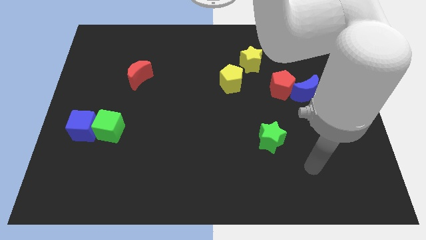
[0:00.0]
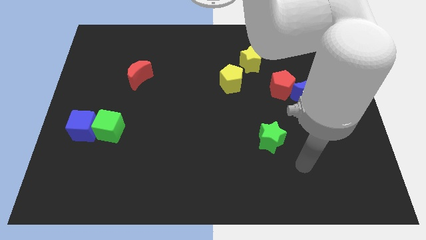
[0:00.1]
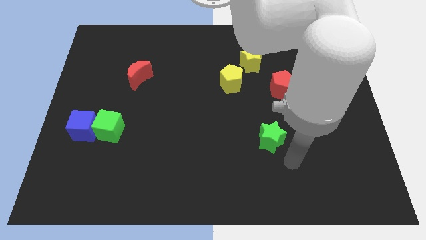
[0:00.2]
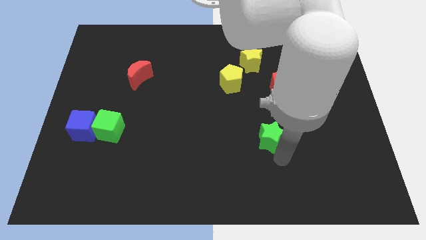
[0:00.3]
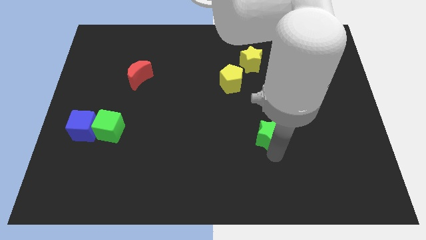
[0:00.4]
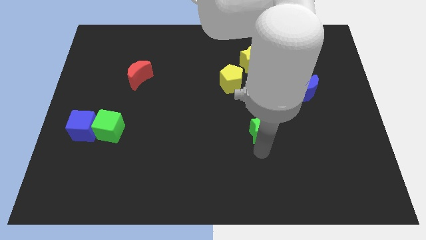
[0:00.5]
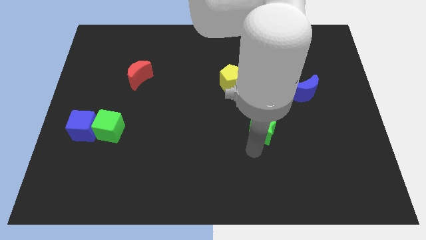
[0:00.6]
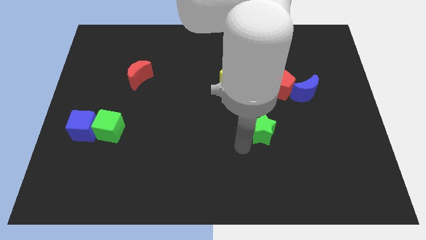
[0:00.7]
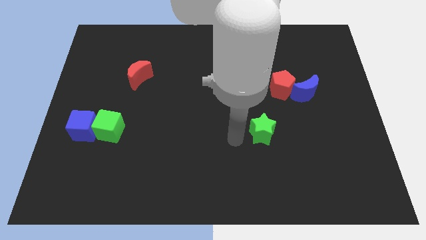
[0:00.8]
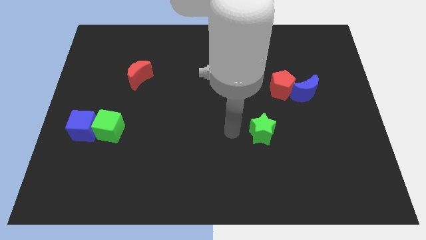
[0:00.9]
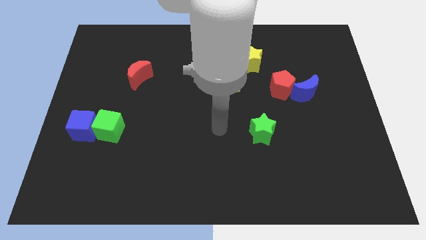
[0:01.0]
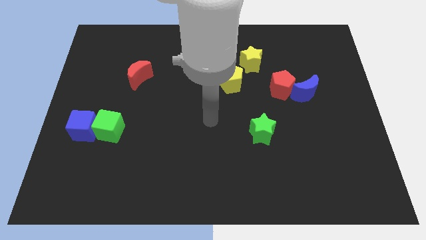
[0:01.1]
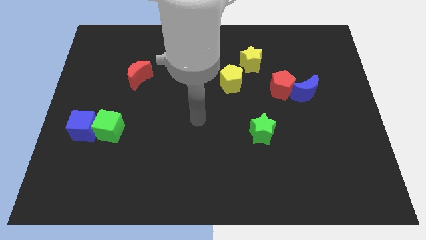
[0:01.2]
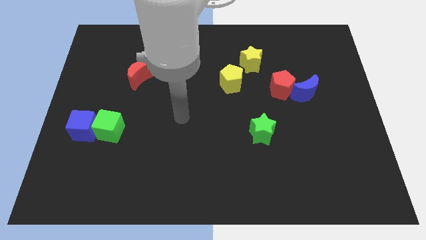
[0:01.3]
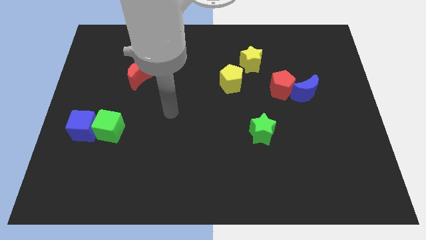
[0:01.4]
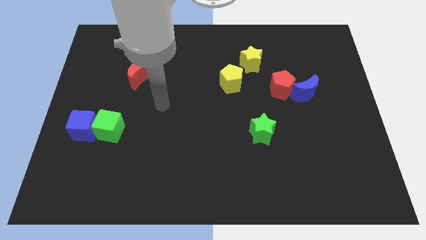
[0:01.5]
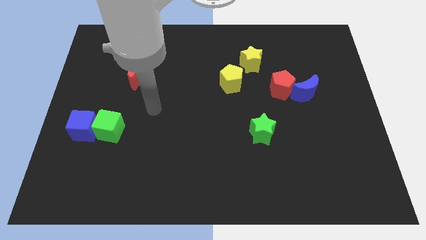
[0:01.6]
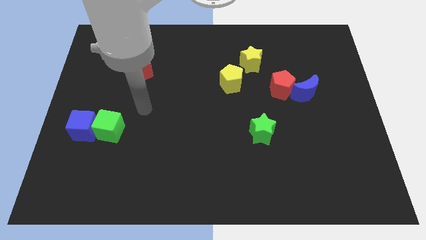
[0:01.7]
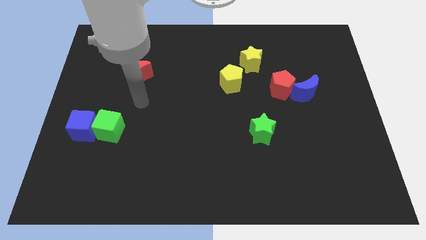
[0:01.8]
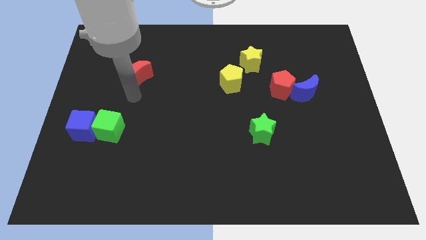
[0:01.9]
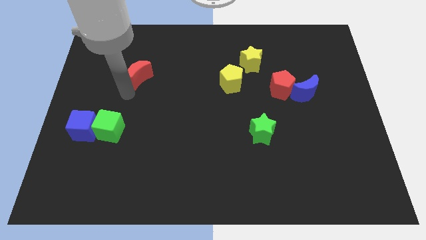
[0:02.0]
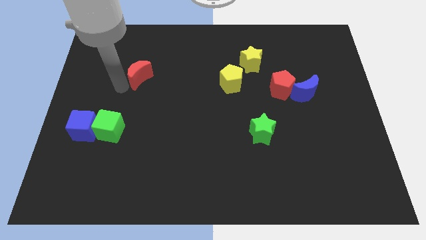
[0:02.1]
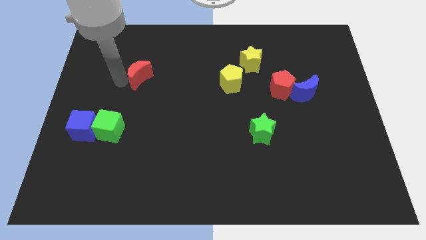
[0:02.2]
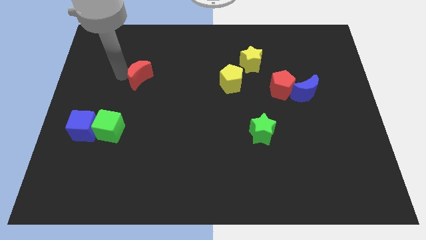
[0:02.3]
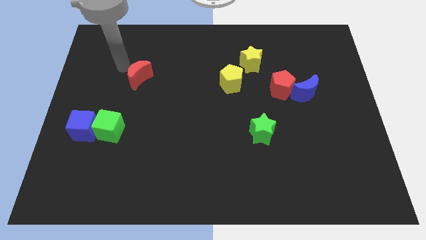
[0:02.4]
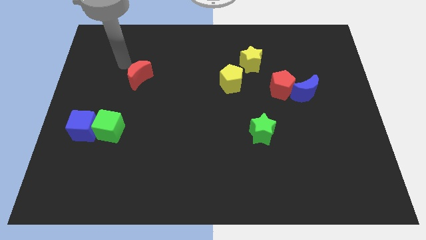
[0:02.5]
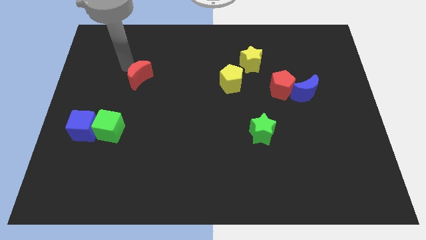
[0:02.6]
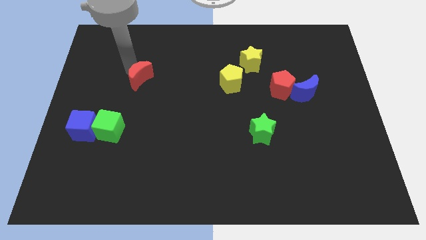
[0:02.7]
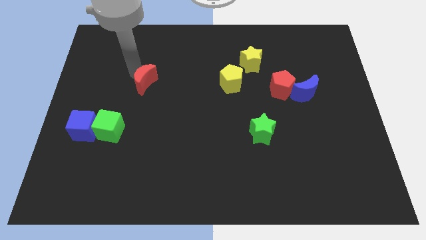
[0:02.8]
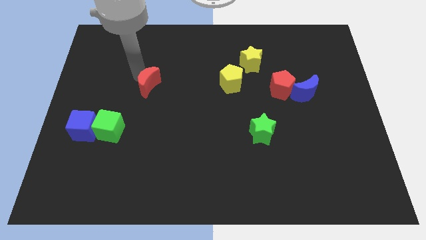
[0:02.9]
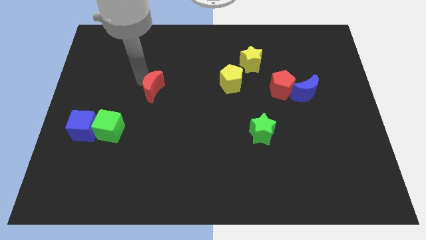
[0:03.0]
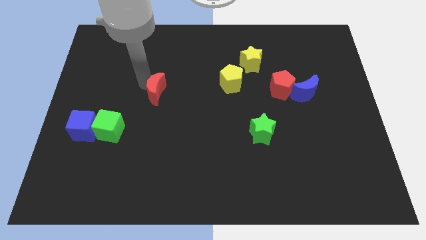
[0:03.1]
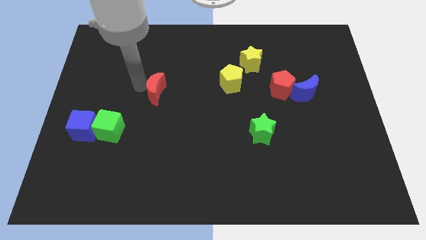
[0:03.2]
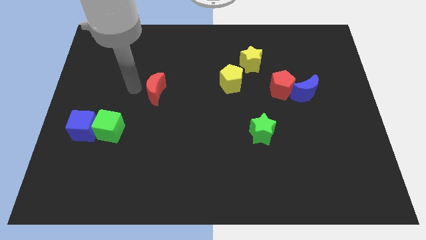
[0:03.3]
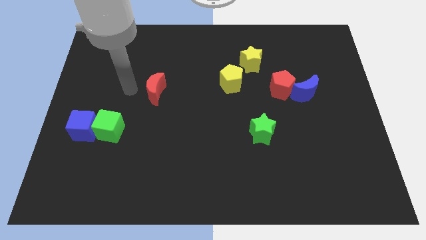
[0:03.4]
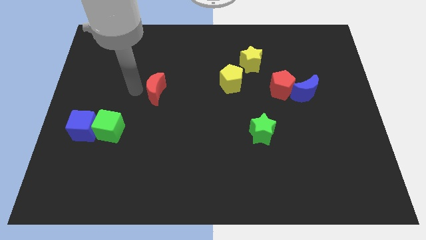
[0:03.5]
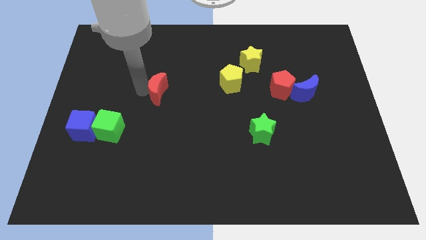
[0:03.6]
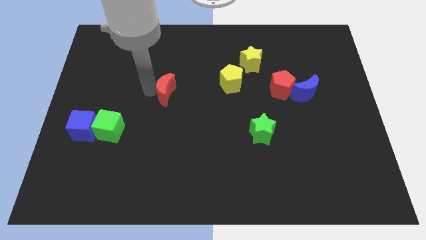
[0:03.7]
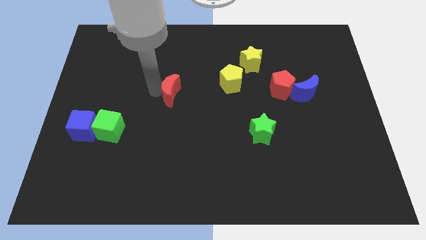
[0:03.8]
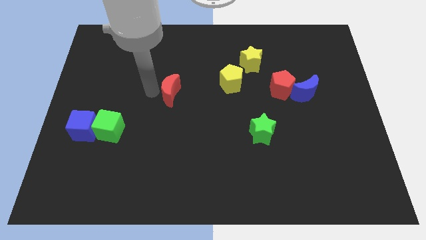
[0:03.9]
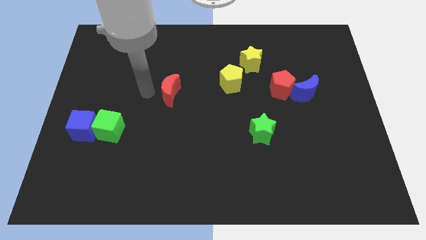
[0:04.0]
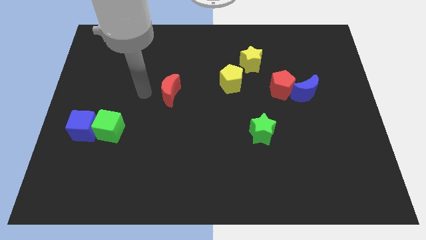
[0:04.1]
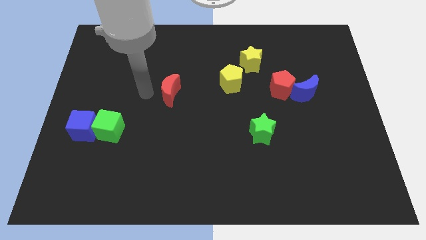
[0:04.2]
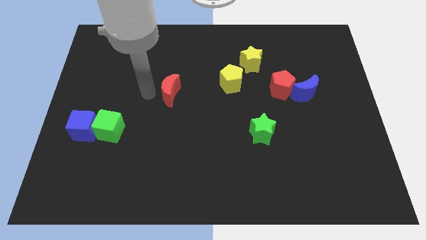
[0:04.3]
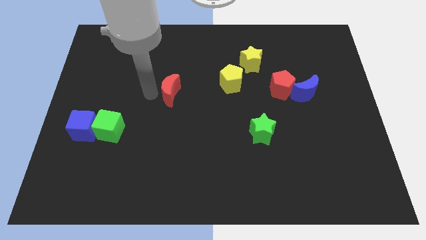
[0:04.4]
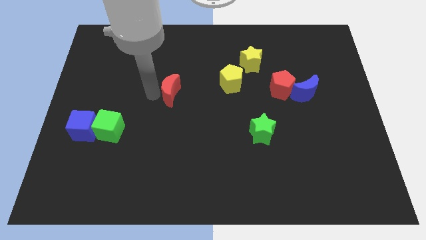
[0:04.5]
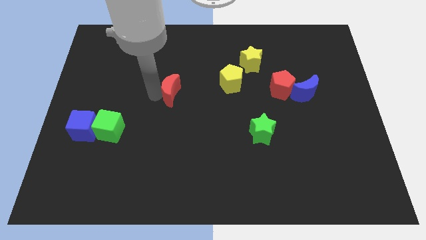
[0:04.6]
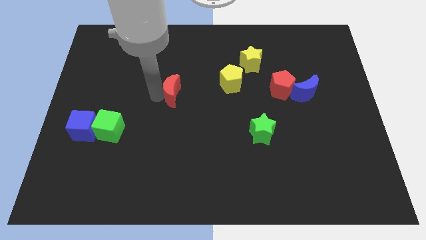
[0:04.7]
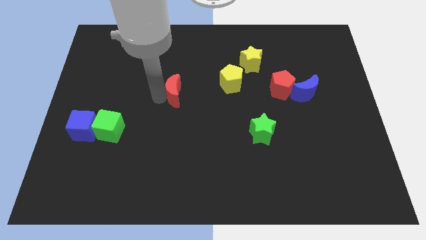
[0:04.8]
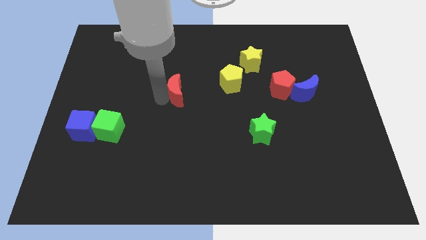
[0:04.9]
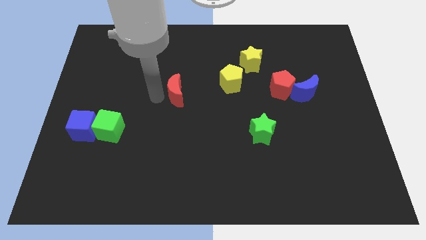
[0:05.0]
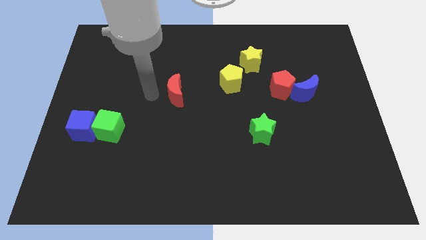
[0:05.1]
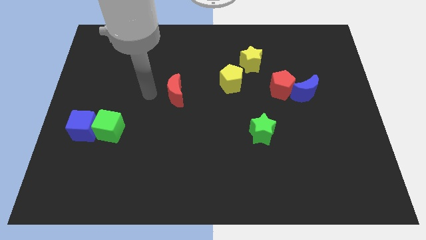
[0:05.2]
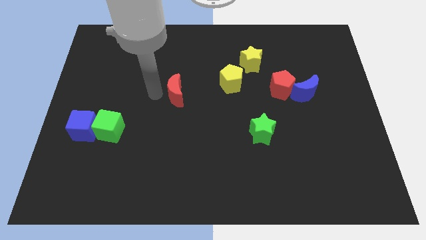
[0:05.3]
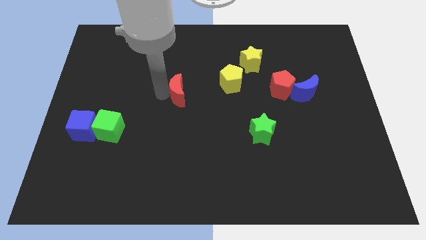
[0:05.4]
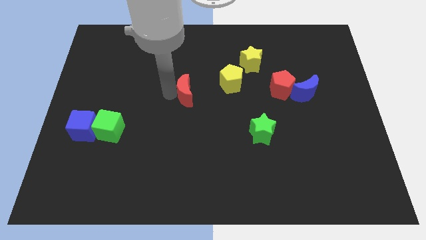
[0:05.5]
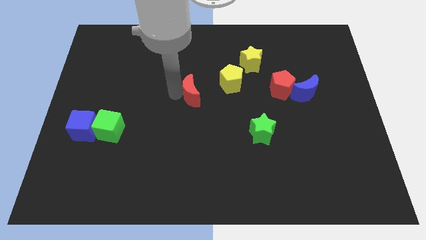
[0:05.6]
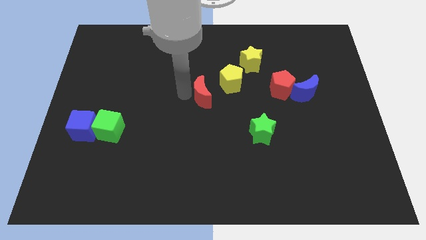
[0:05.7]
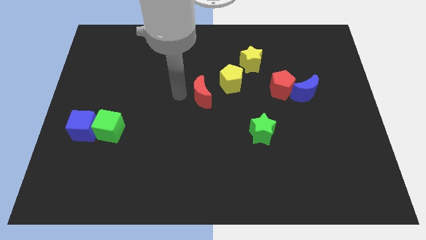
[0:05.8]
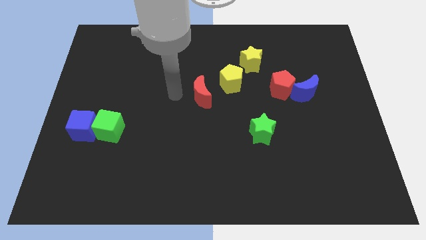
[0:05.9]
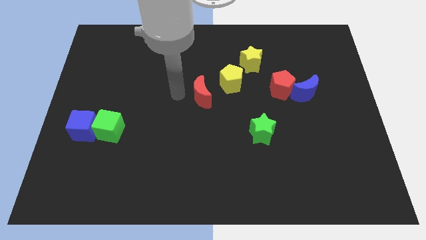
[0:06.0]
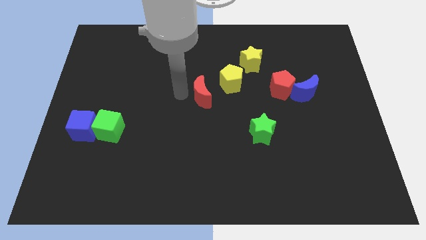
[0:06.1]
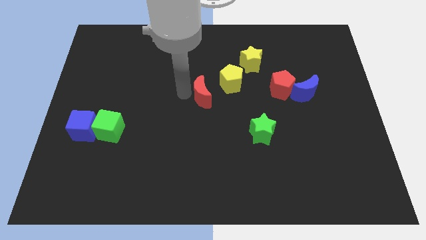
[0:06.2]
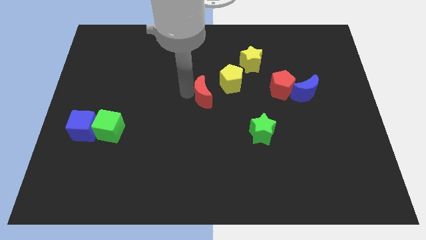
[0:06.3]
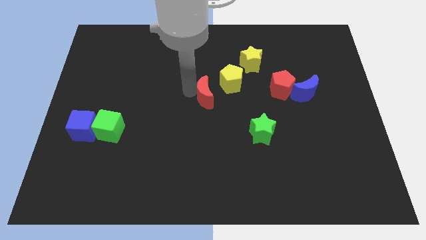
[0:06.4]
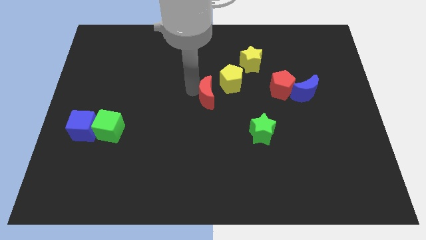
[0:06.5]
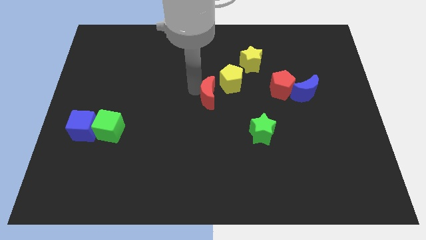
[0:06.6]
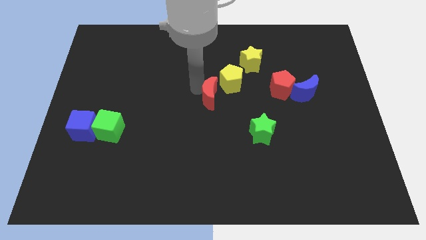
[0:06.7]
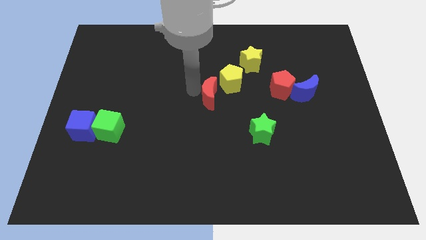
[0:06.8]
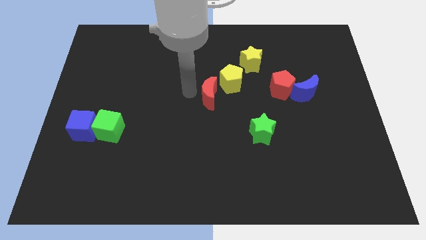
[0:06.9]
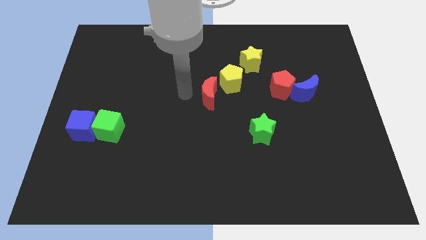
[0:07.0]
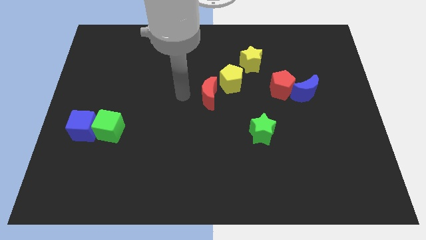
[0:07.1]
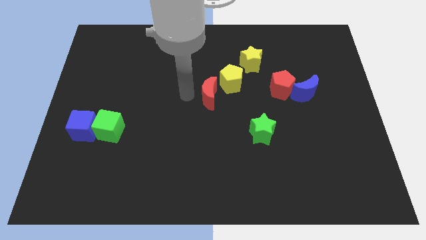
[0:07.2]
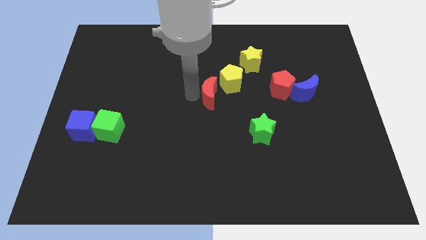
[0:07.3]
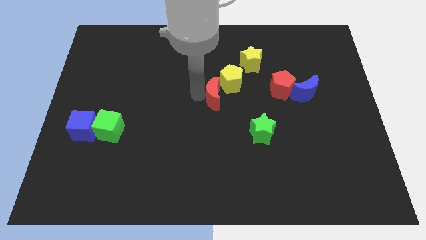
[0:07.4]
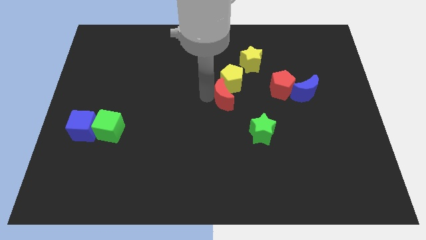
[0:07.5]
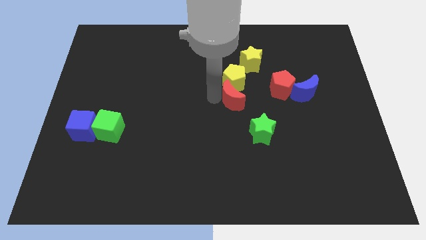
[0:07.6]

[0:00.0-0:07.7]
push the red moon diagonally down and to the right of the yellow pentagon
